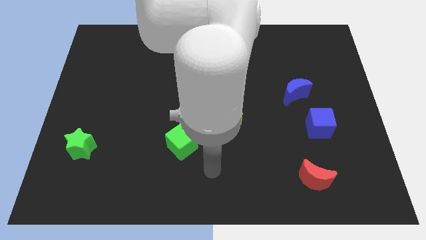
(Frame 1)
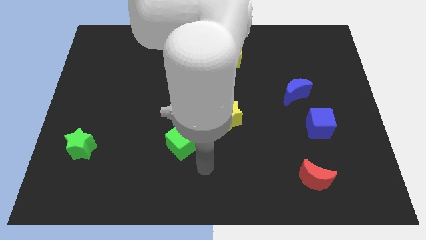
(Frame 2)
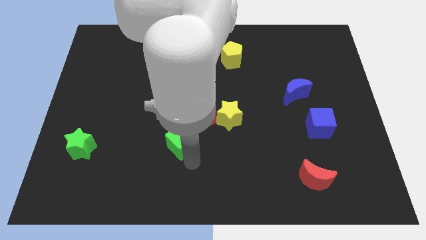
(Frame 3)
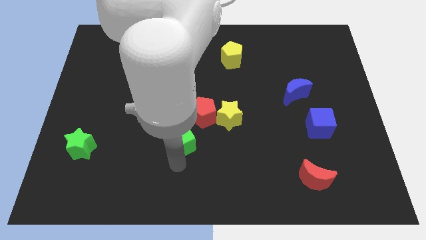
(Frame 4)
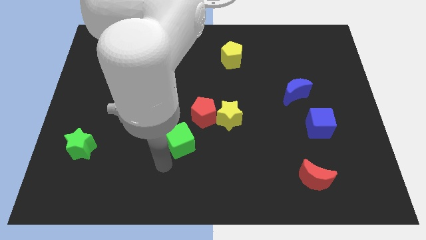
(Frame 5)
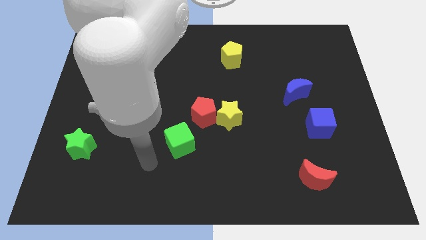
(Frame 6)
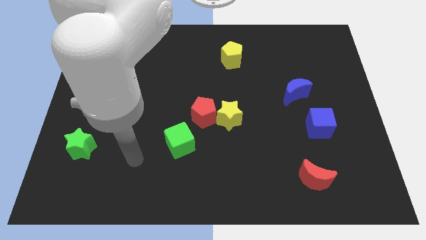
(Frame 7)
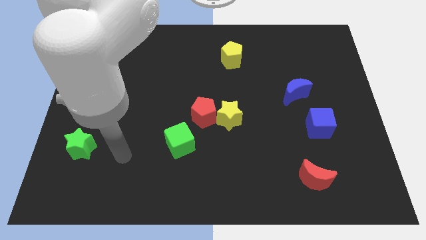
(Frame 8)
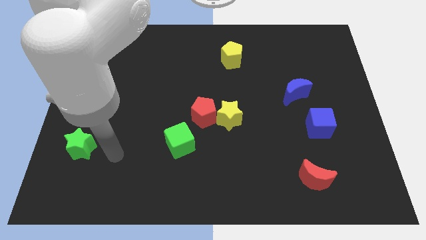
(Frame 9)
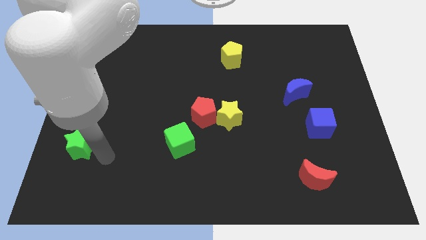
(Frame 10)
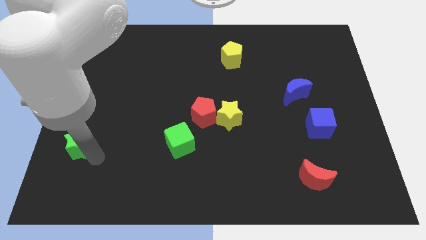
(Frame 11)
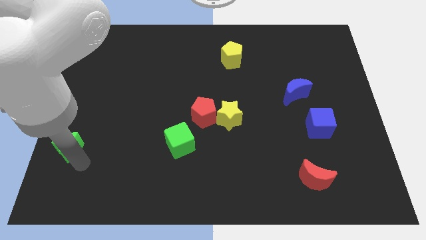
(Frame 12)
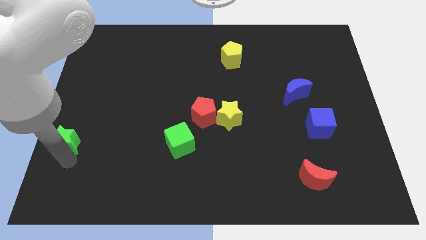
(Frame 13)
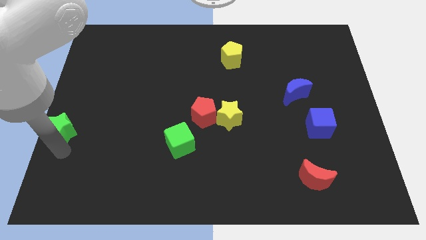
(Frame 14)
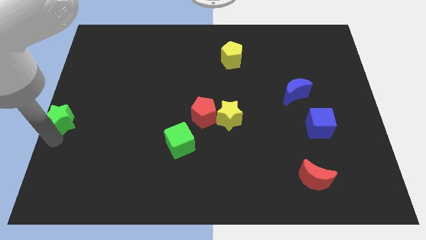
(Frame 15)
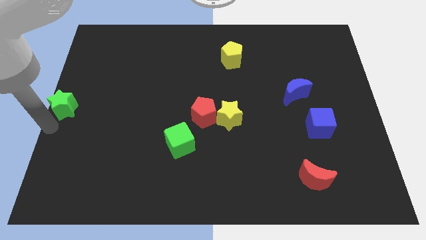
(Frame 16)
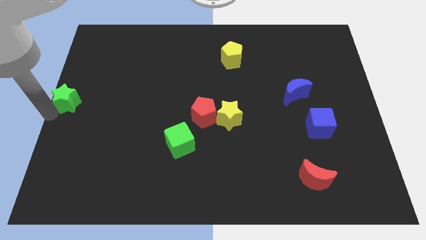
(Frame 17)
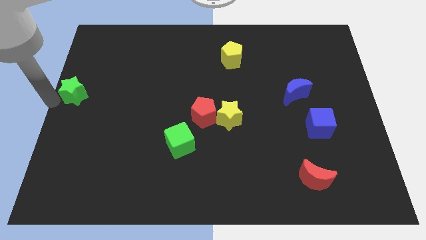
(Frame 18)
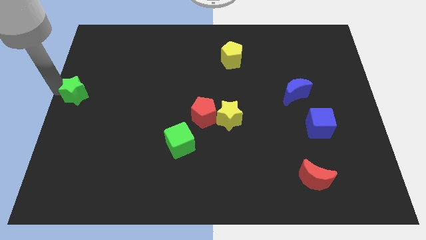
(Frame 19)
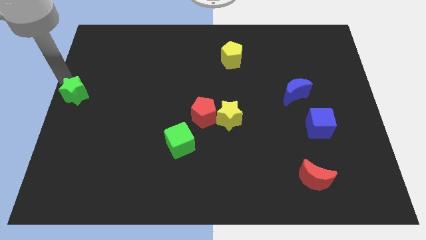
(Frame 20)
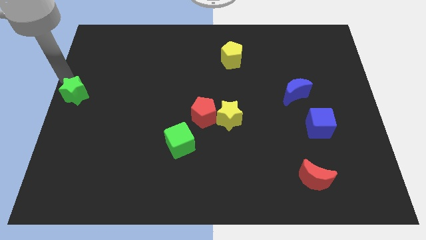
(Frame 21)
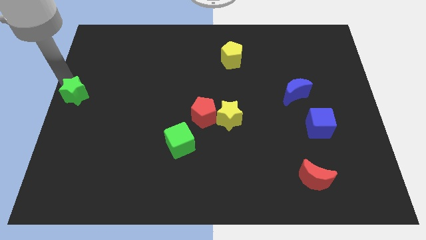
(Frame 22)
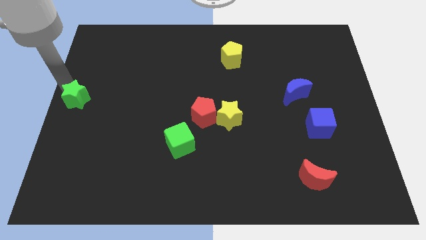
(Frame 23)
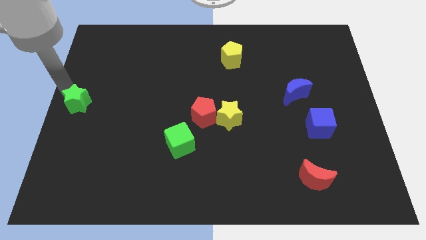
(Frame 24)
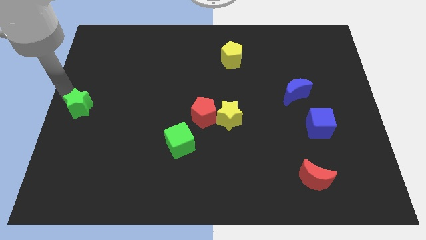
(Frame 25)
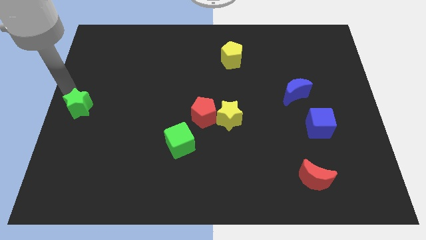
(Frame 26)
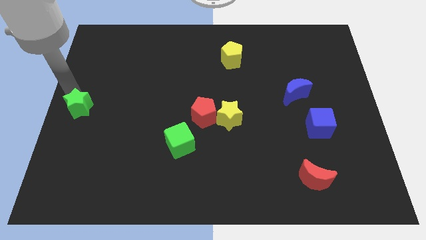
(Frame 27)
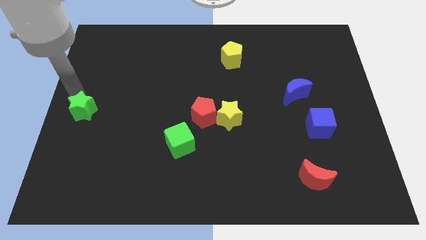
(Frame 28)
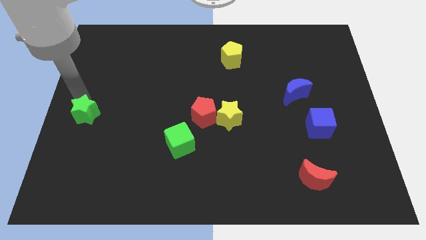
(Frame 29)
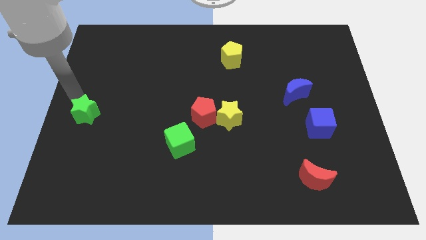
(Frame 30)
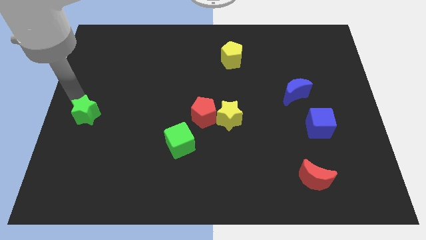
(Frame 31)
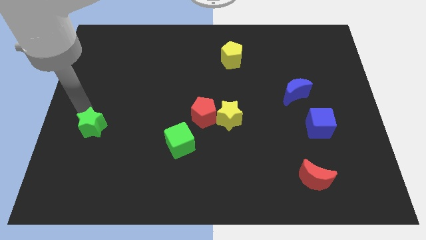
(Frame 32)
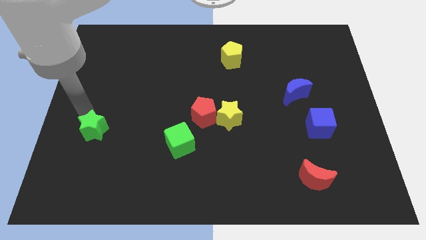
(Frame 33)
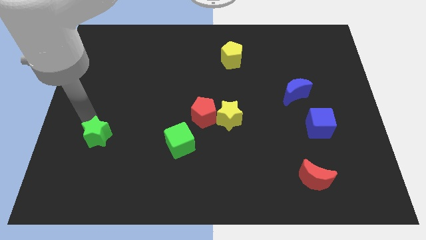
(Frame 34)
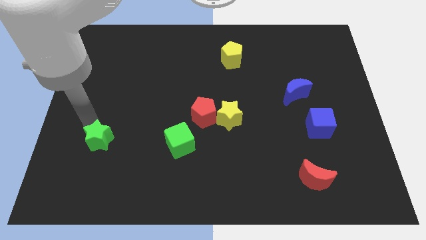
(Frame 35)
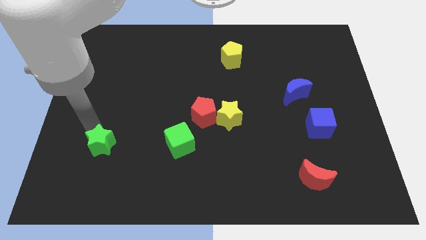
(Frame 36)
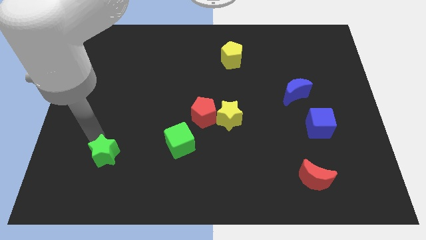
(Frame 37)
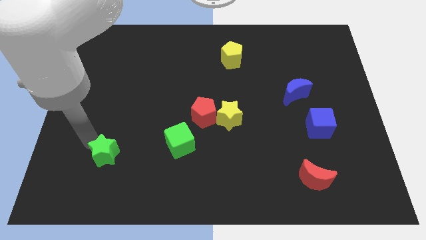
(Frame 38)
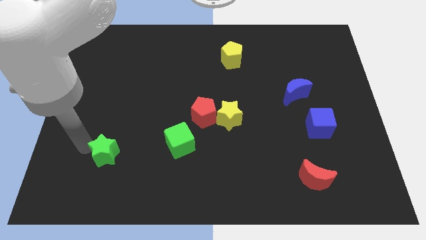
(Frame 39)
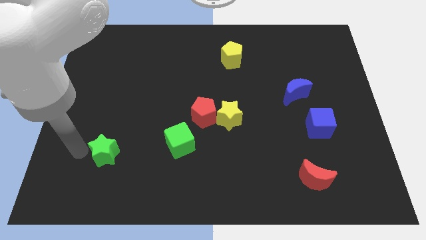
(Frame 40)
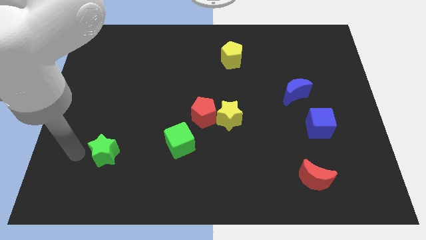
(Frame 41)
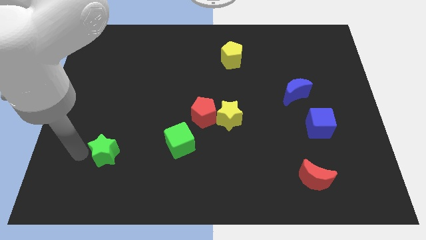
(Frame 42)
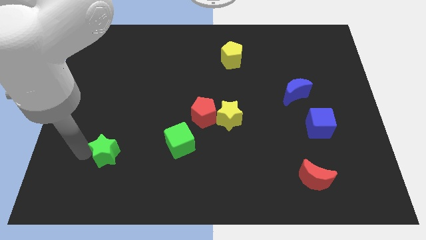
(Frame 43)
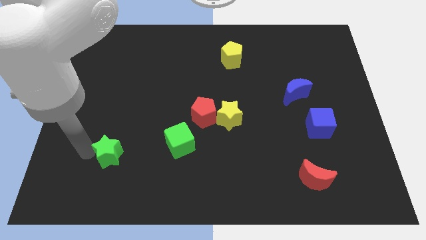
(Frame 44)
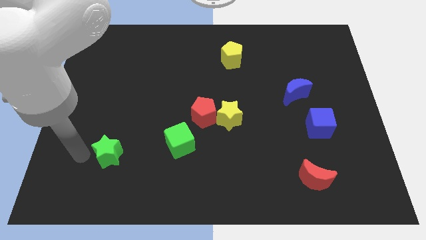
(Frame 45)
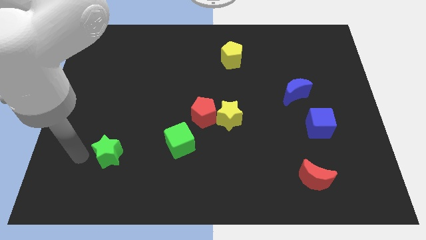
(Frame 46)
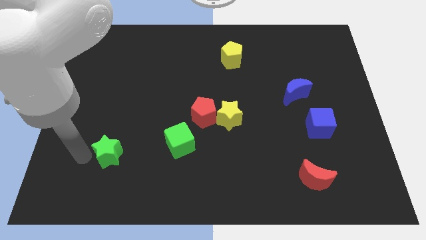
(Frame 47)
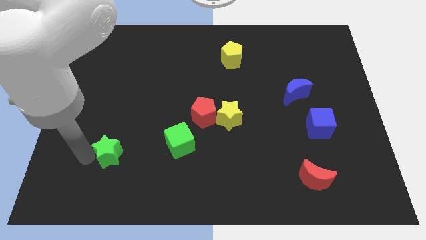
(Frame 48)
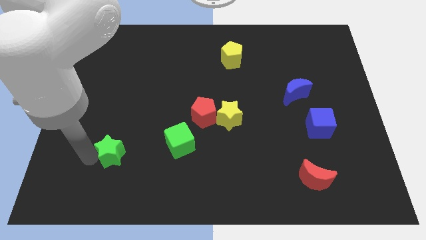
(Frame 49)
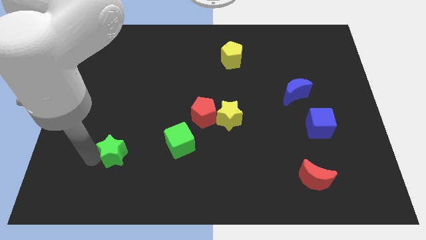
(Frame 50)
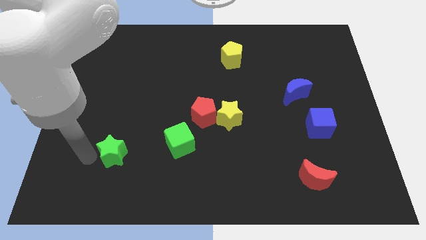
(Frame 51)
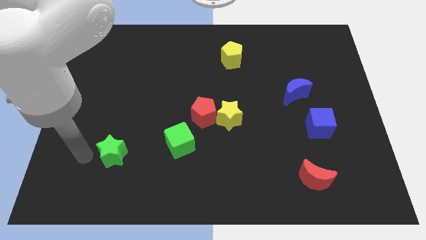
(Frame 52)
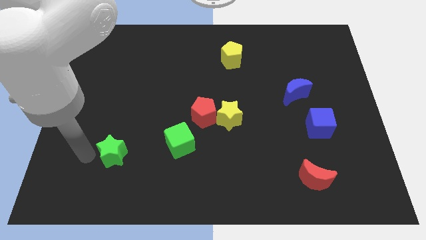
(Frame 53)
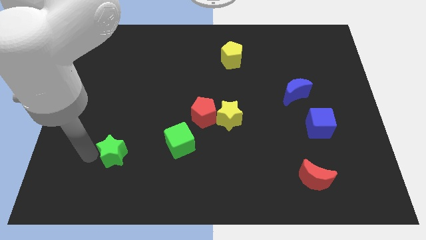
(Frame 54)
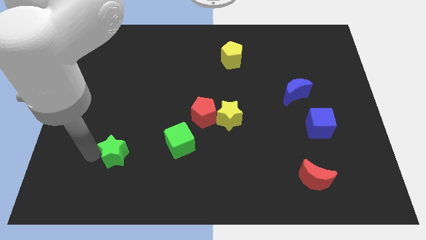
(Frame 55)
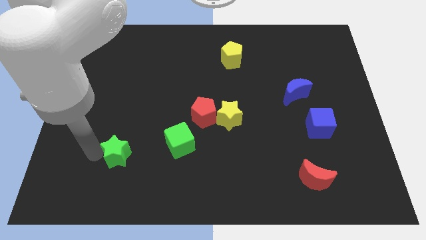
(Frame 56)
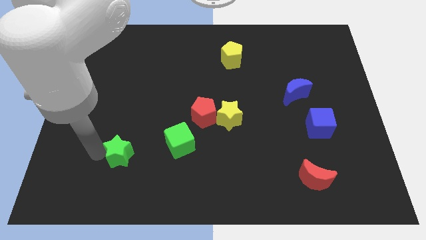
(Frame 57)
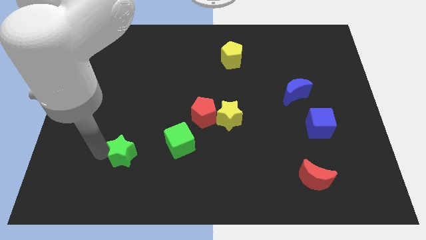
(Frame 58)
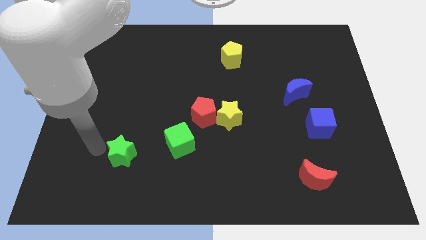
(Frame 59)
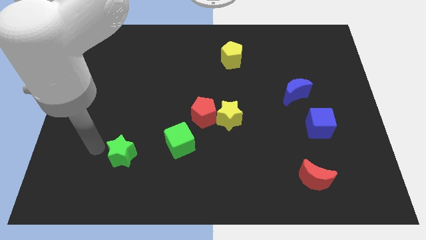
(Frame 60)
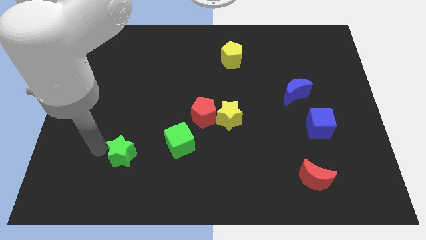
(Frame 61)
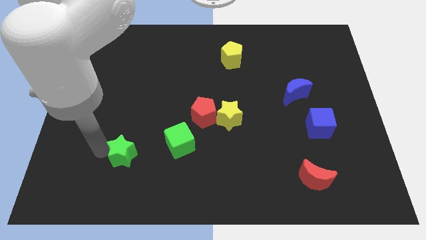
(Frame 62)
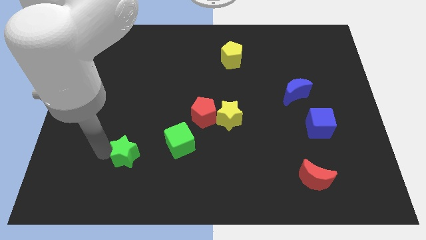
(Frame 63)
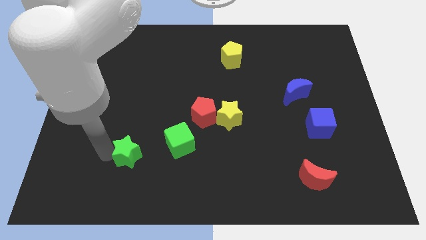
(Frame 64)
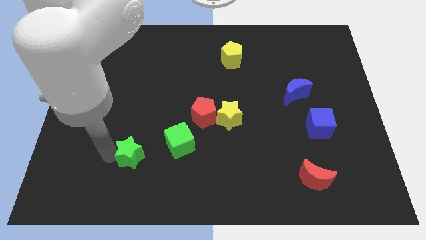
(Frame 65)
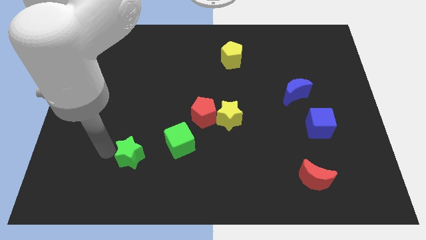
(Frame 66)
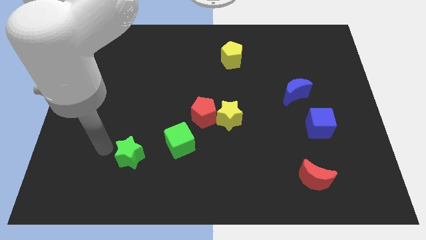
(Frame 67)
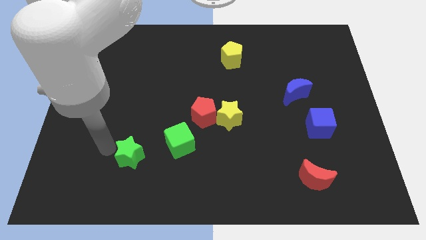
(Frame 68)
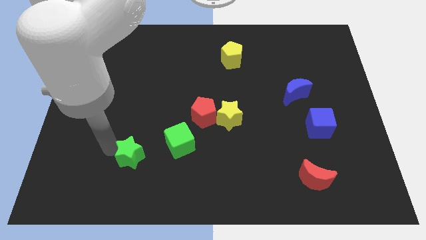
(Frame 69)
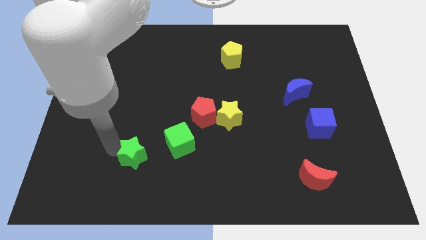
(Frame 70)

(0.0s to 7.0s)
move the green star to the bottom left side of the green cube
